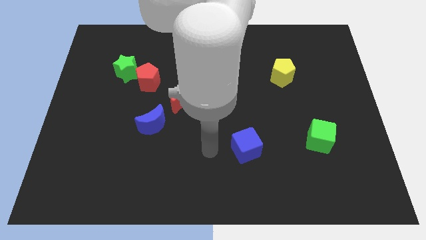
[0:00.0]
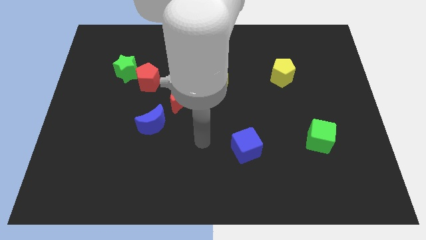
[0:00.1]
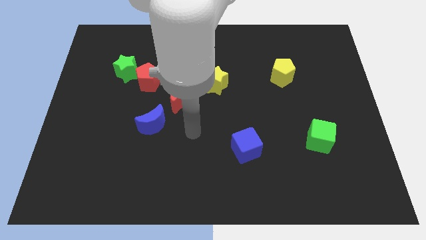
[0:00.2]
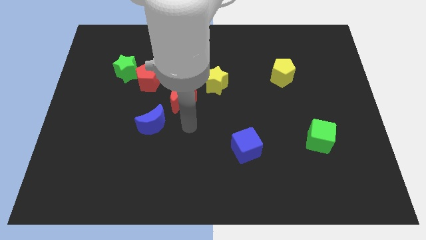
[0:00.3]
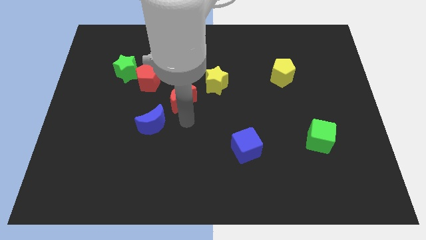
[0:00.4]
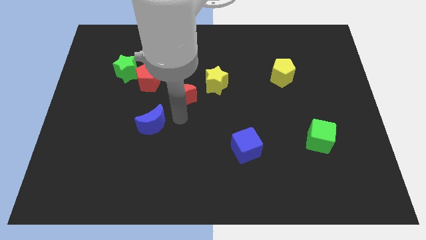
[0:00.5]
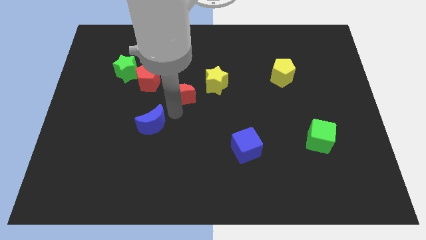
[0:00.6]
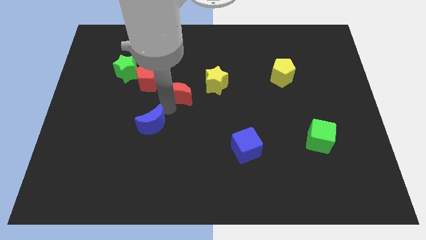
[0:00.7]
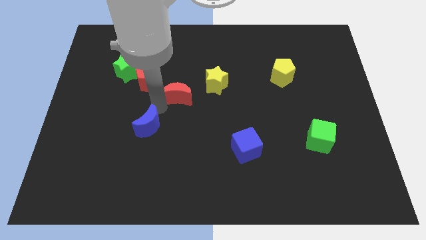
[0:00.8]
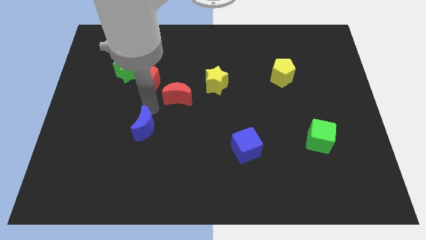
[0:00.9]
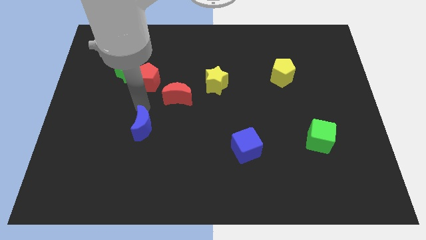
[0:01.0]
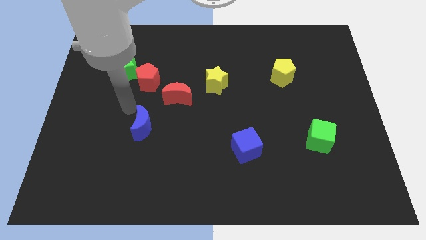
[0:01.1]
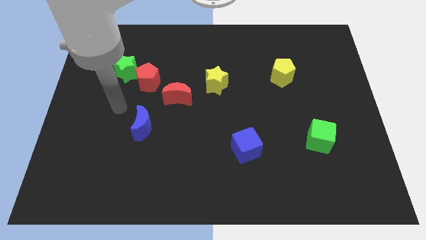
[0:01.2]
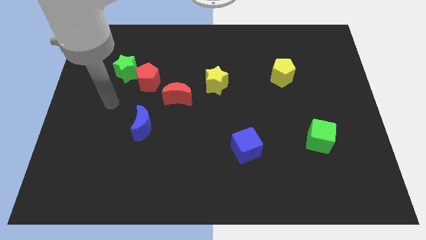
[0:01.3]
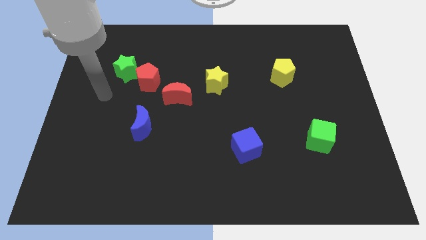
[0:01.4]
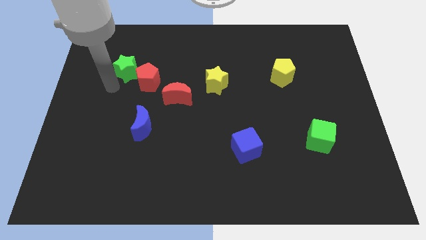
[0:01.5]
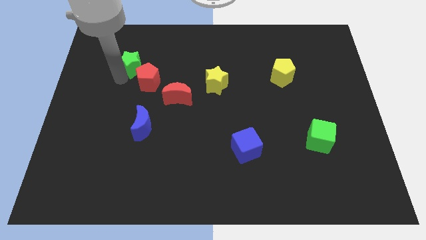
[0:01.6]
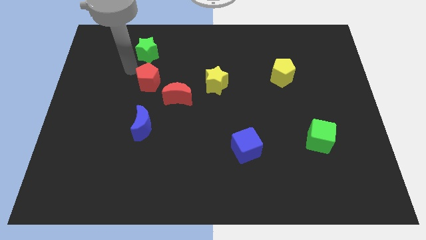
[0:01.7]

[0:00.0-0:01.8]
separate the red pentagon from the green star

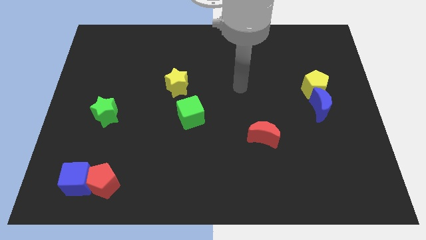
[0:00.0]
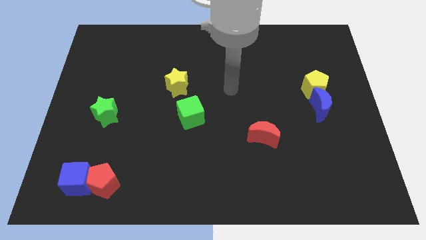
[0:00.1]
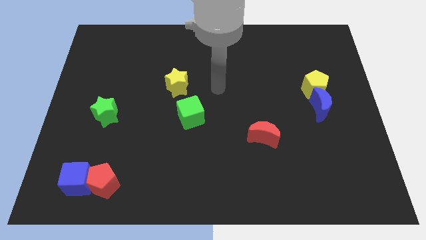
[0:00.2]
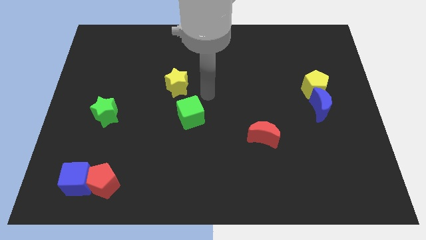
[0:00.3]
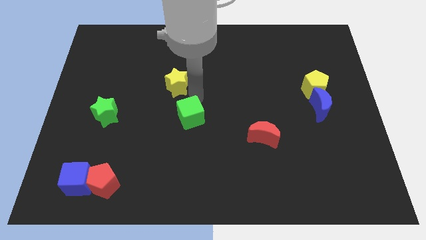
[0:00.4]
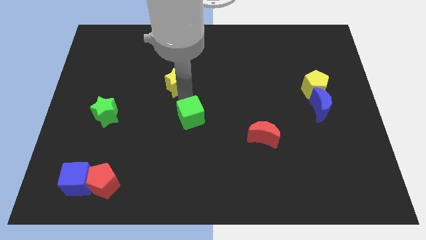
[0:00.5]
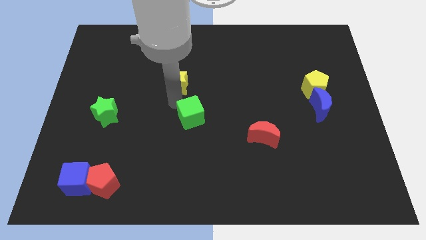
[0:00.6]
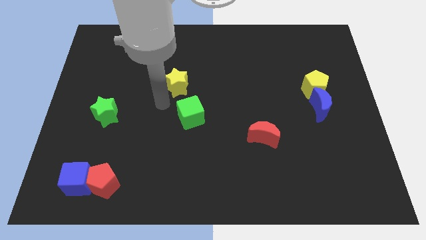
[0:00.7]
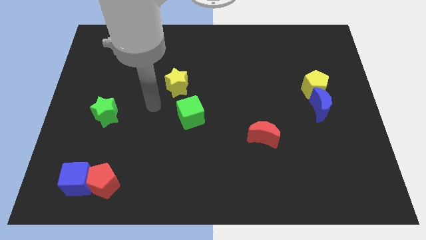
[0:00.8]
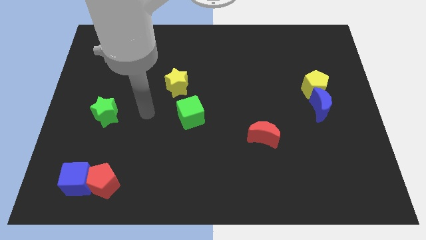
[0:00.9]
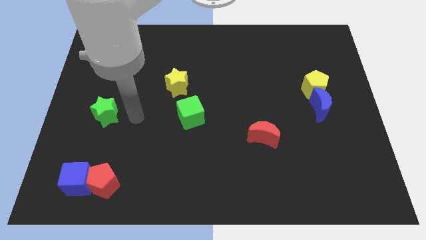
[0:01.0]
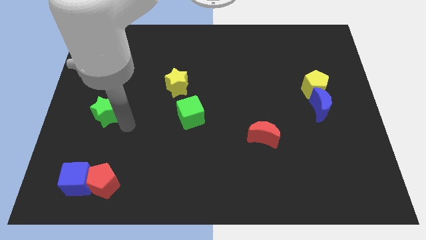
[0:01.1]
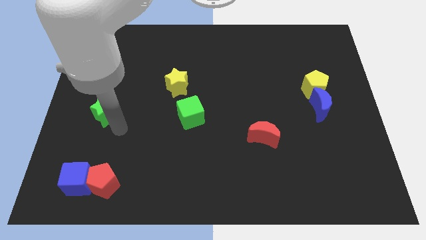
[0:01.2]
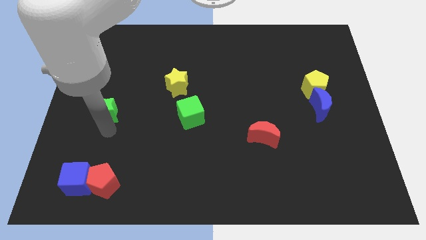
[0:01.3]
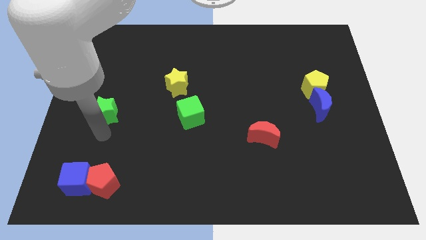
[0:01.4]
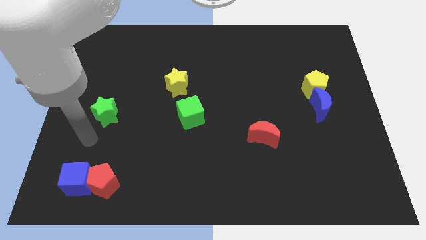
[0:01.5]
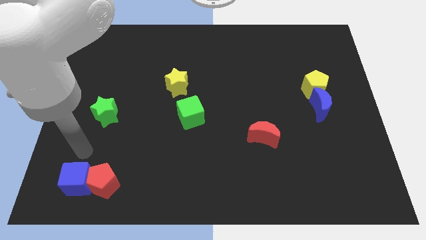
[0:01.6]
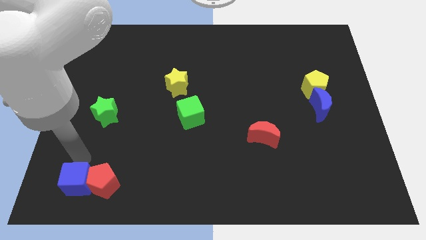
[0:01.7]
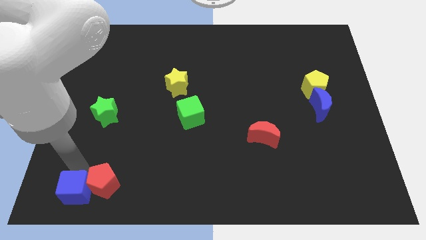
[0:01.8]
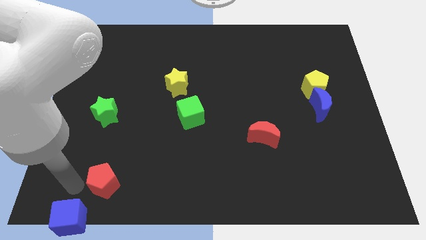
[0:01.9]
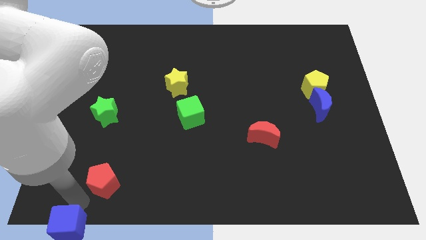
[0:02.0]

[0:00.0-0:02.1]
pull the red pentagon apart from the blue cube

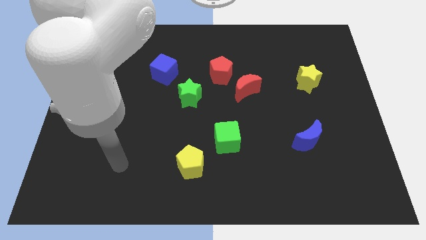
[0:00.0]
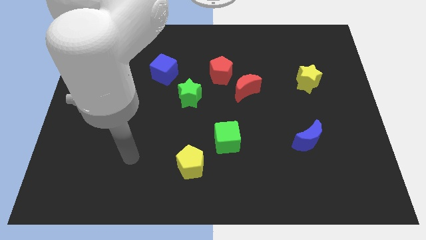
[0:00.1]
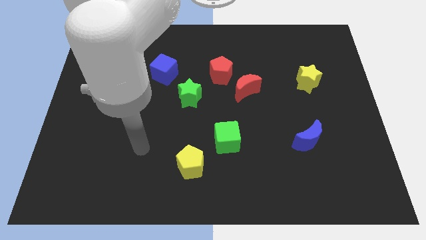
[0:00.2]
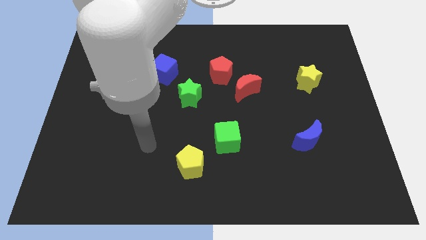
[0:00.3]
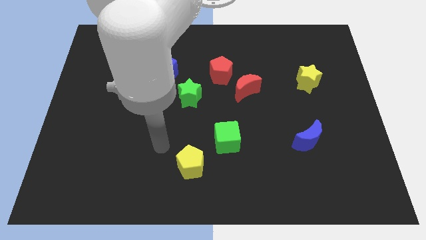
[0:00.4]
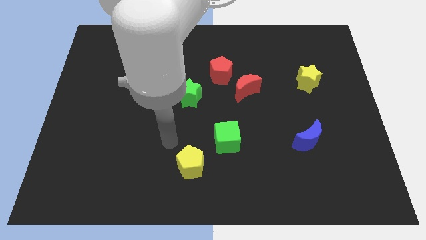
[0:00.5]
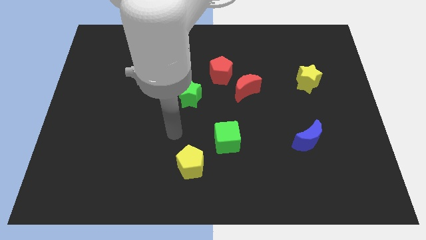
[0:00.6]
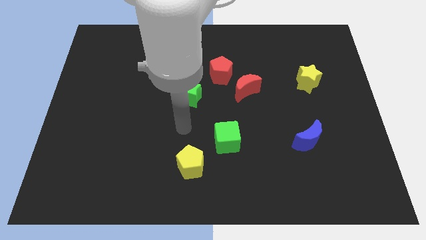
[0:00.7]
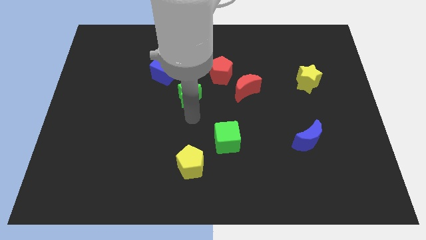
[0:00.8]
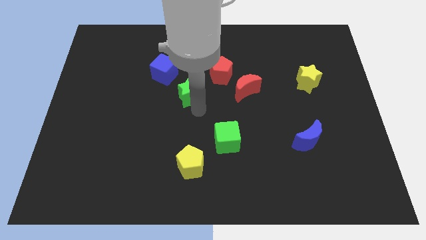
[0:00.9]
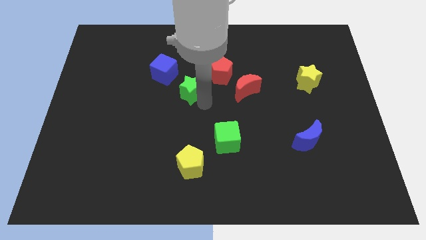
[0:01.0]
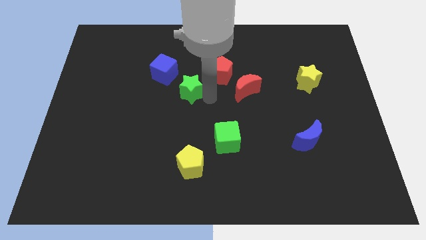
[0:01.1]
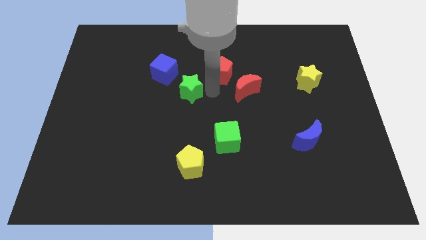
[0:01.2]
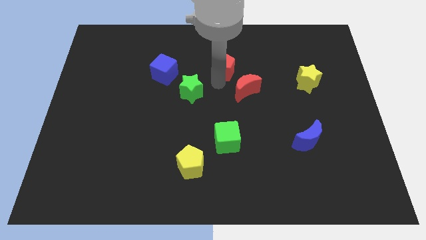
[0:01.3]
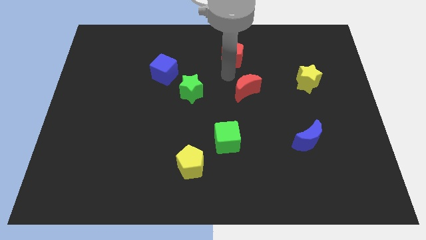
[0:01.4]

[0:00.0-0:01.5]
pull the red moon apart from the red pentagon

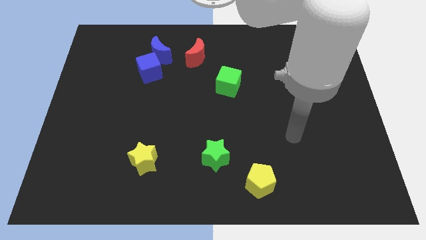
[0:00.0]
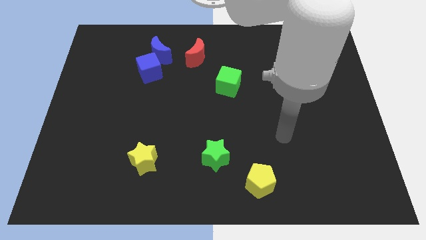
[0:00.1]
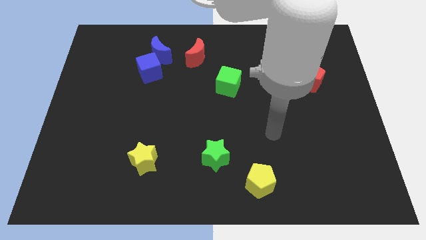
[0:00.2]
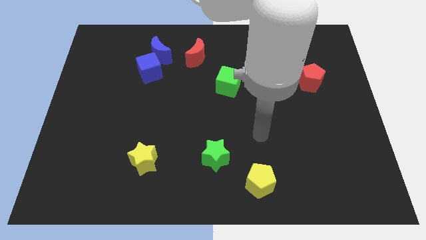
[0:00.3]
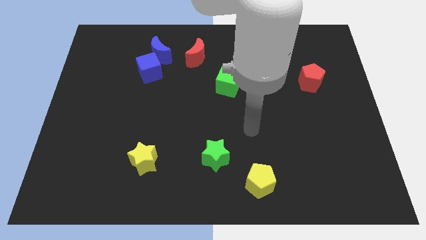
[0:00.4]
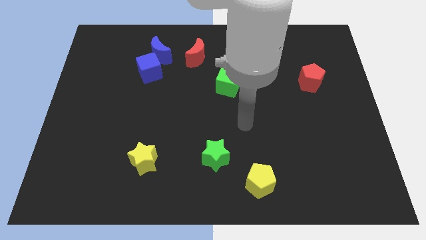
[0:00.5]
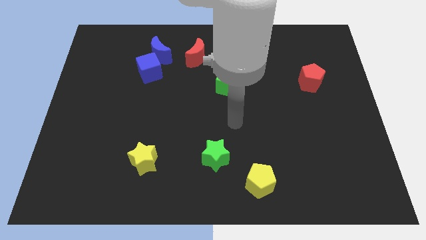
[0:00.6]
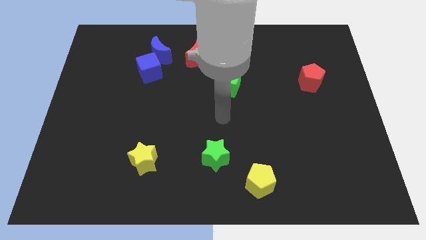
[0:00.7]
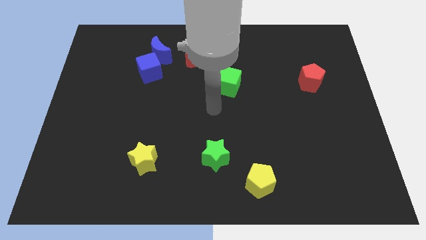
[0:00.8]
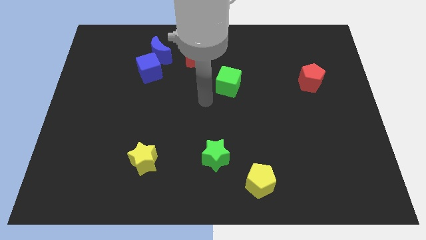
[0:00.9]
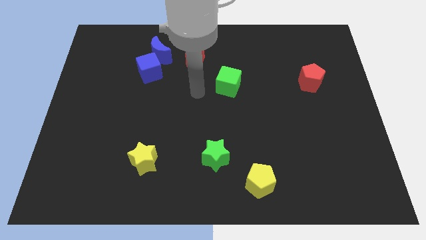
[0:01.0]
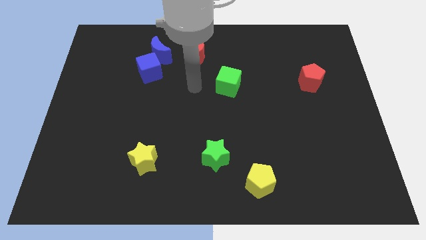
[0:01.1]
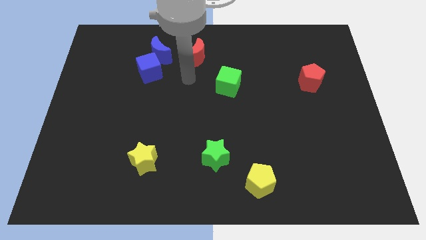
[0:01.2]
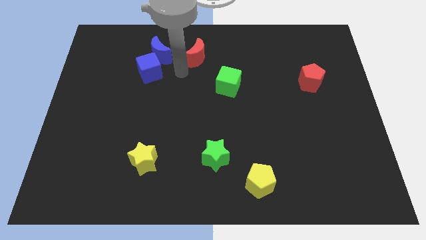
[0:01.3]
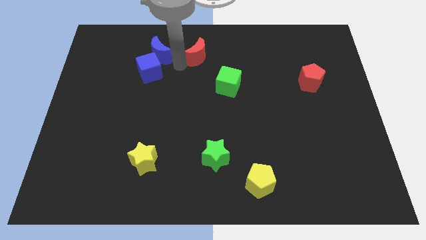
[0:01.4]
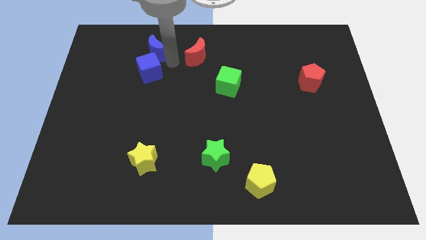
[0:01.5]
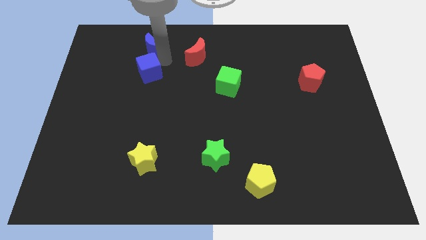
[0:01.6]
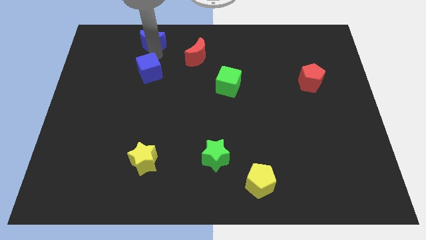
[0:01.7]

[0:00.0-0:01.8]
pull the blue cube apart from the blue moon

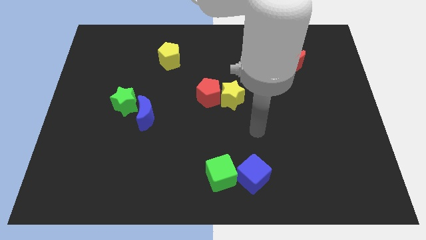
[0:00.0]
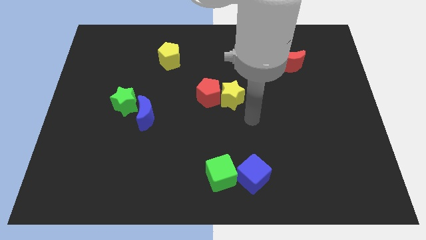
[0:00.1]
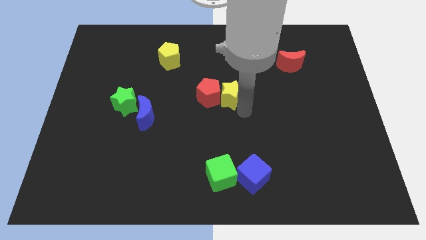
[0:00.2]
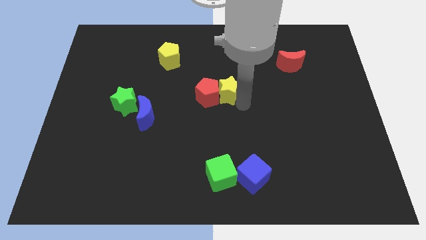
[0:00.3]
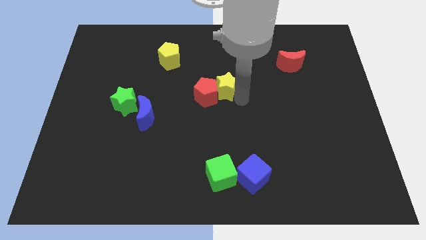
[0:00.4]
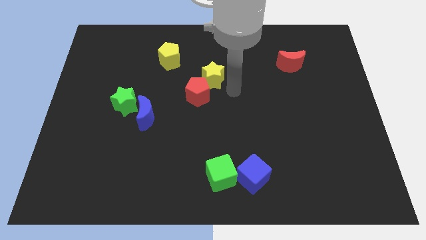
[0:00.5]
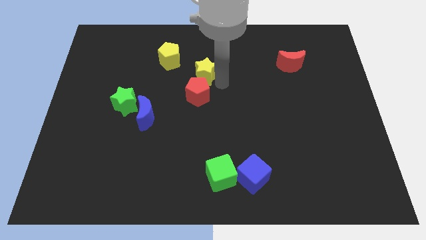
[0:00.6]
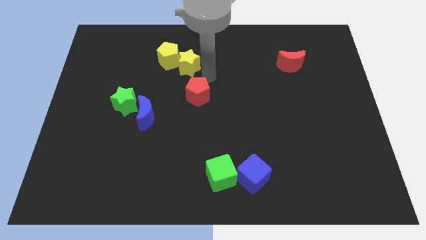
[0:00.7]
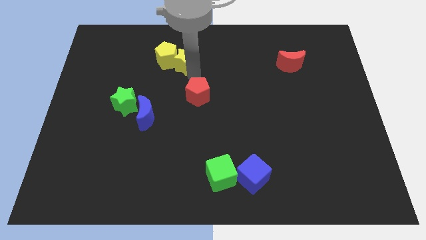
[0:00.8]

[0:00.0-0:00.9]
separate the red pentagon from the yellow star

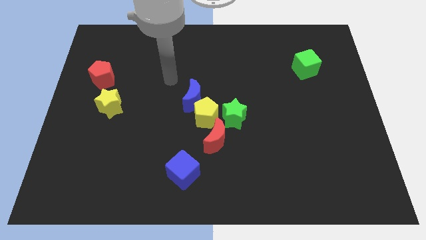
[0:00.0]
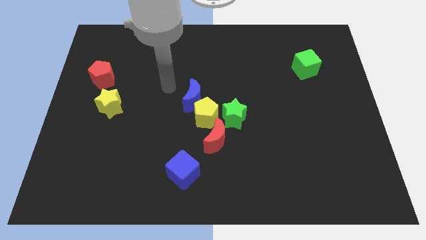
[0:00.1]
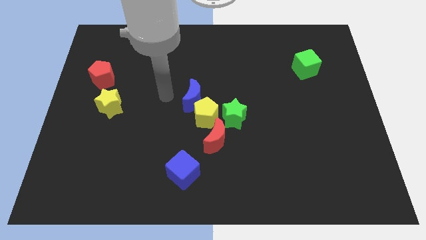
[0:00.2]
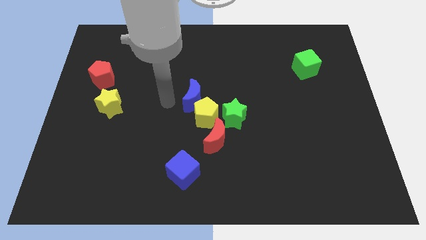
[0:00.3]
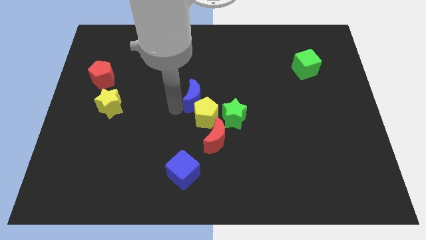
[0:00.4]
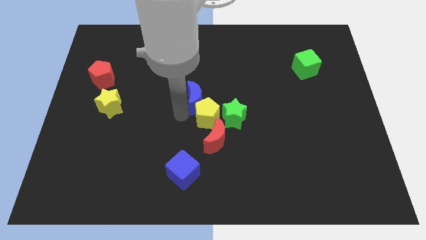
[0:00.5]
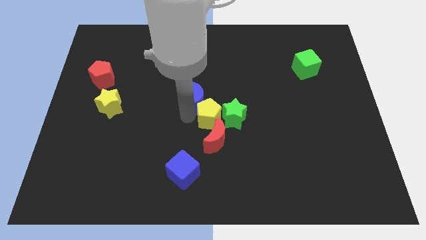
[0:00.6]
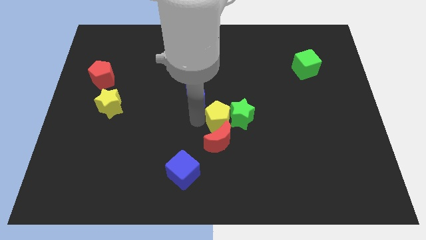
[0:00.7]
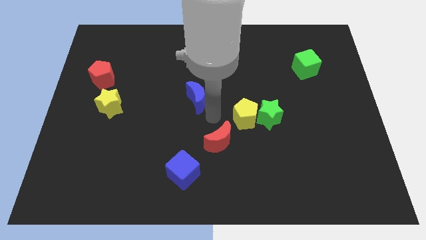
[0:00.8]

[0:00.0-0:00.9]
move the blue moon away from the yellow pentagon

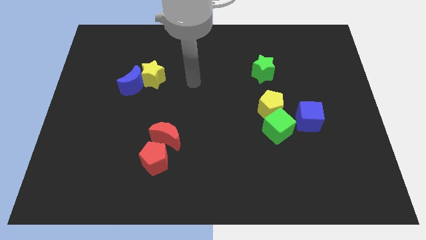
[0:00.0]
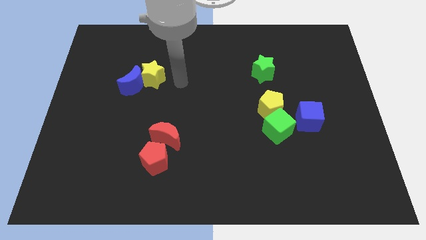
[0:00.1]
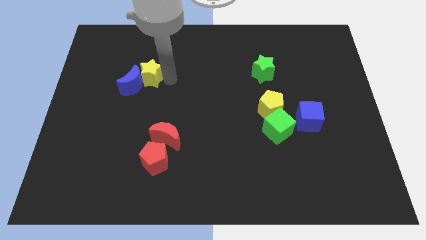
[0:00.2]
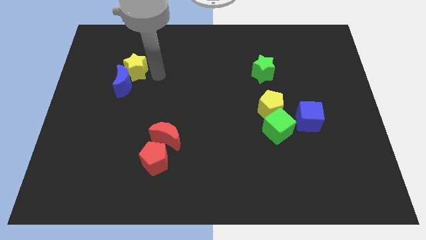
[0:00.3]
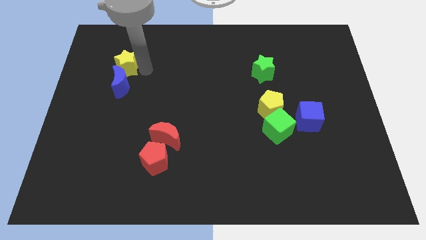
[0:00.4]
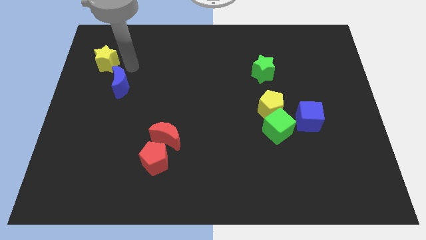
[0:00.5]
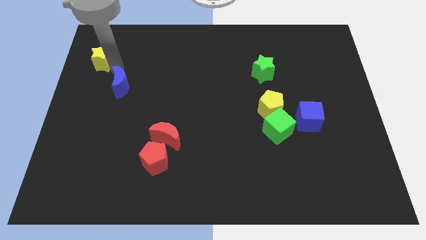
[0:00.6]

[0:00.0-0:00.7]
move the blue moon away from the yellow star
